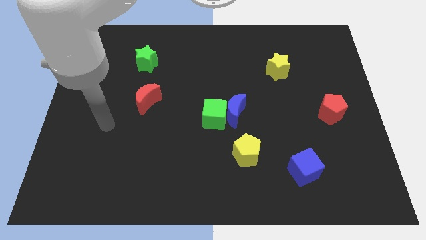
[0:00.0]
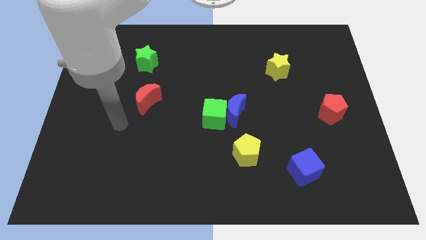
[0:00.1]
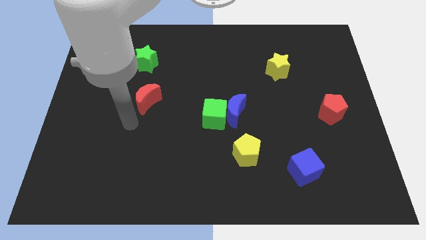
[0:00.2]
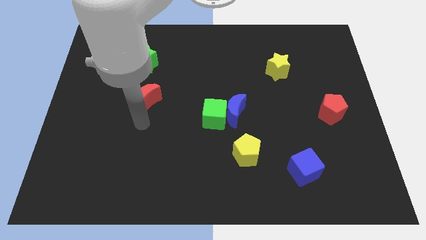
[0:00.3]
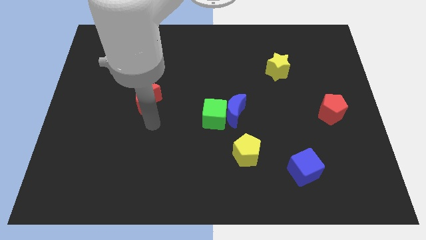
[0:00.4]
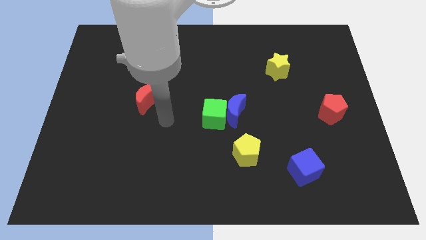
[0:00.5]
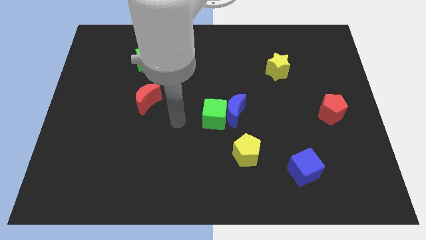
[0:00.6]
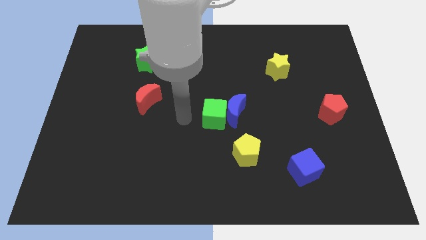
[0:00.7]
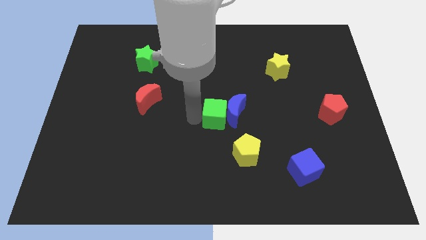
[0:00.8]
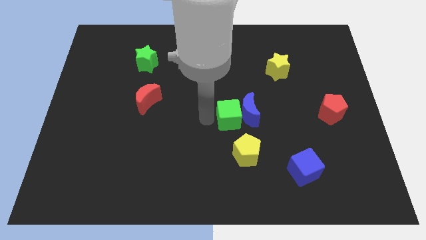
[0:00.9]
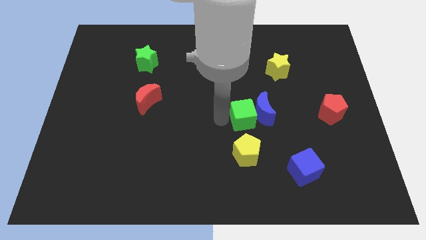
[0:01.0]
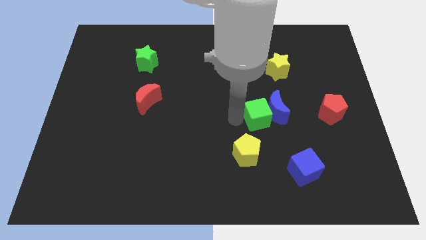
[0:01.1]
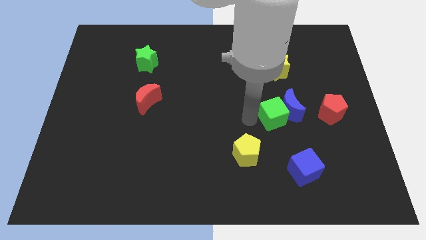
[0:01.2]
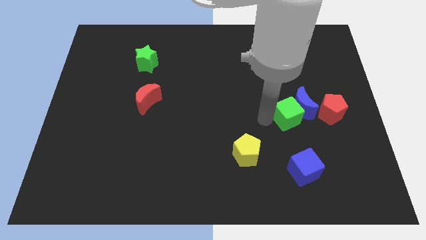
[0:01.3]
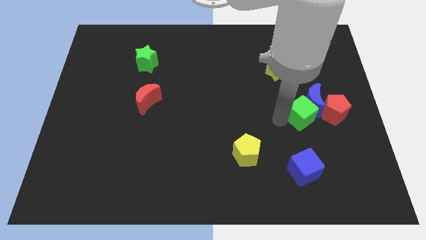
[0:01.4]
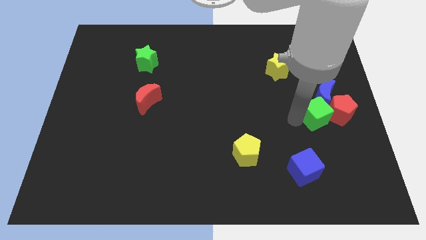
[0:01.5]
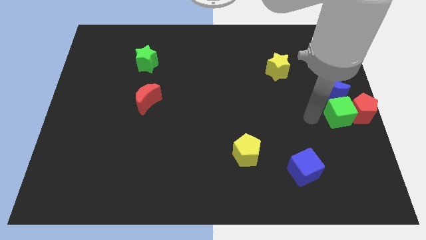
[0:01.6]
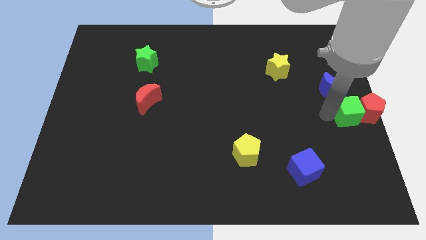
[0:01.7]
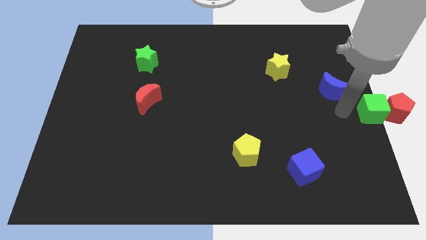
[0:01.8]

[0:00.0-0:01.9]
separate the blue moon from the green cube

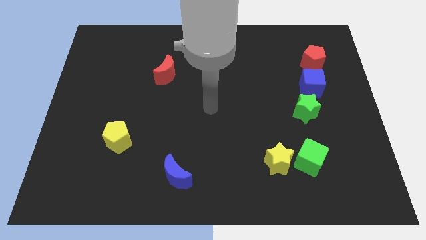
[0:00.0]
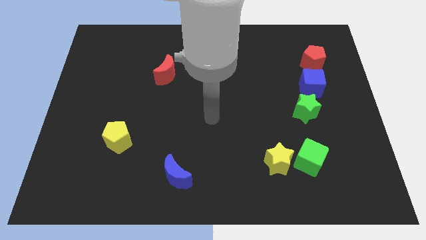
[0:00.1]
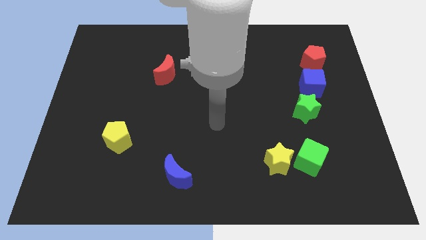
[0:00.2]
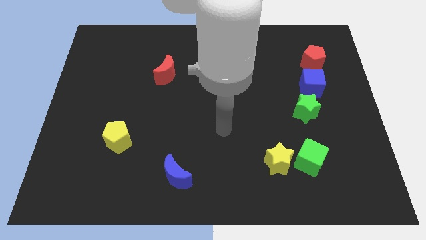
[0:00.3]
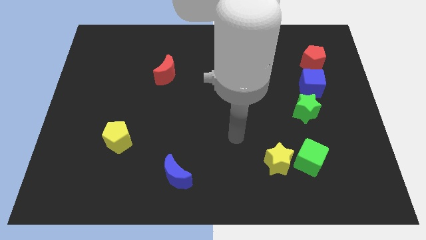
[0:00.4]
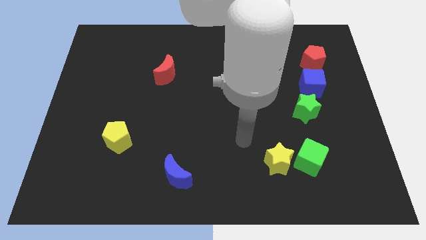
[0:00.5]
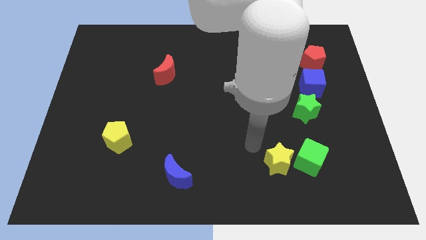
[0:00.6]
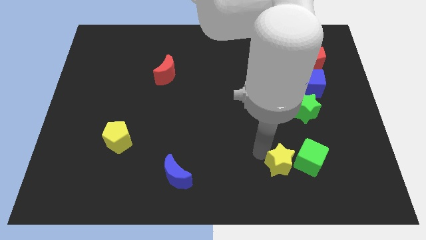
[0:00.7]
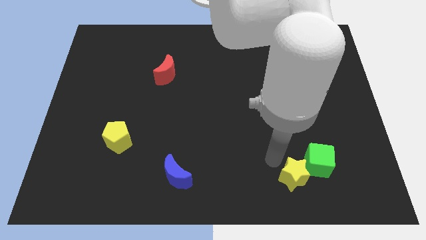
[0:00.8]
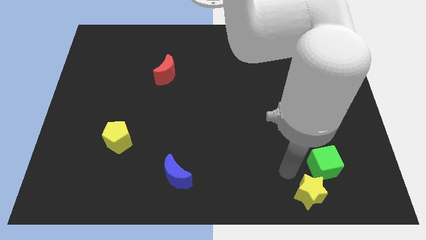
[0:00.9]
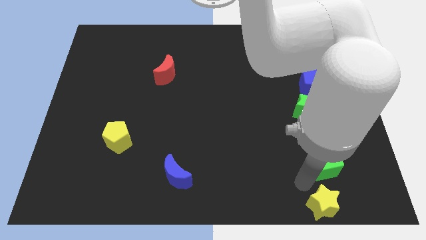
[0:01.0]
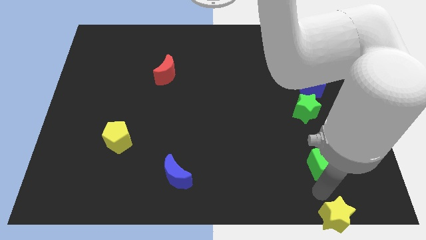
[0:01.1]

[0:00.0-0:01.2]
pull the green cube apart from the yellow star

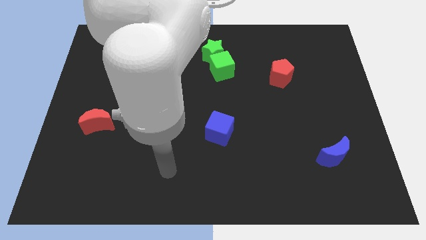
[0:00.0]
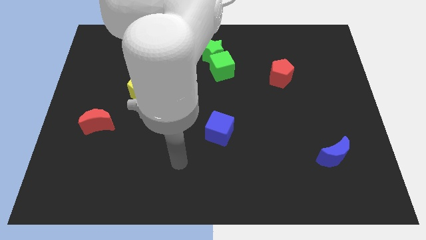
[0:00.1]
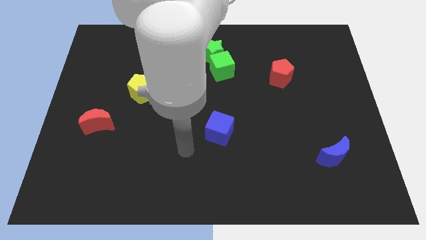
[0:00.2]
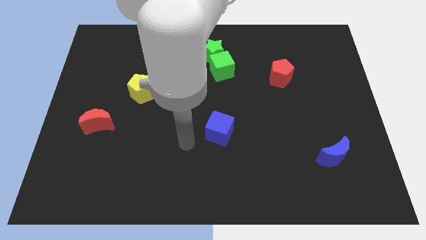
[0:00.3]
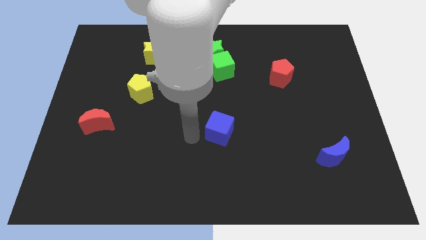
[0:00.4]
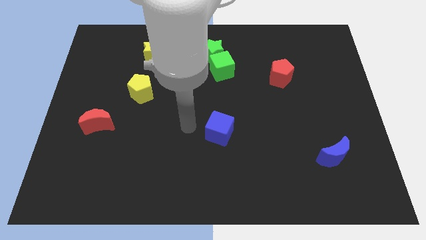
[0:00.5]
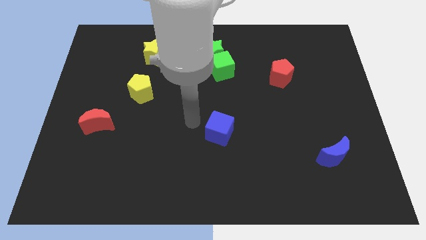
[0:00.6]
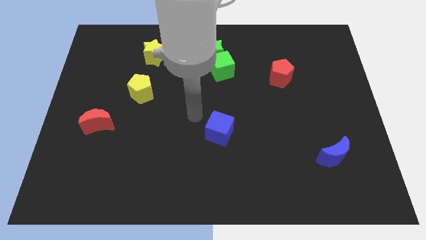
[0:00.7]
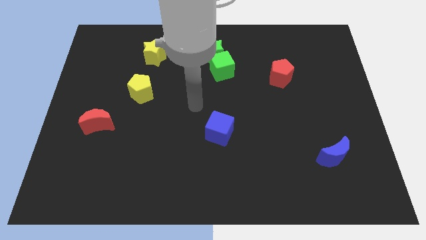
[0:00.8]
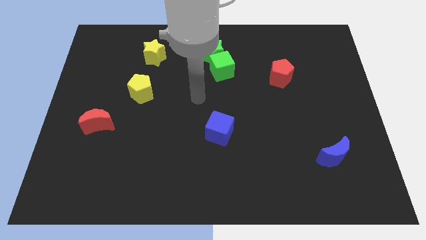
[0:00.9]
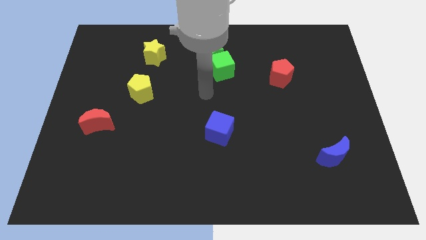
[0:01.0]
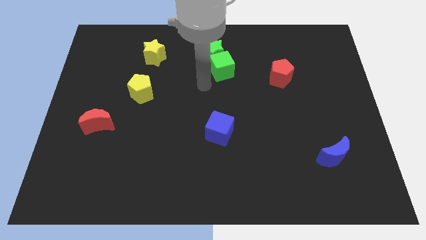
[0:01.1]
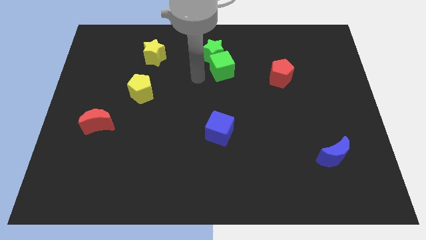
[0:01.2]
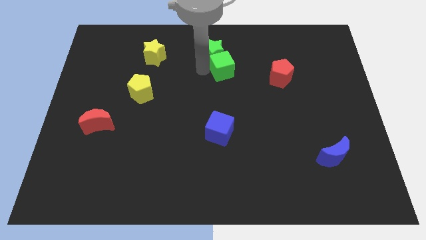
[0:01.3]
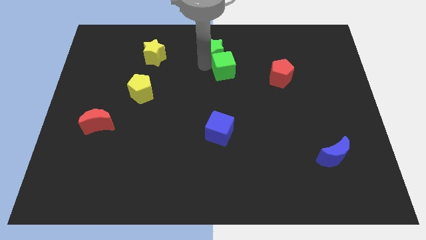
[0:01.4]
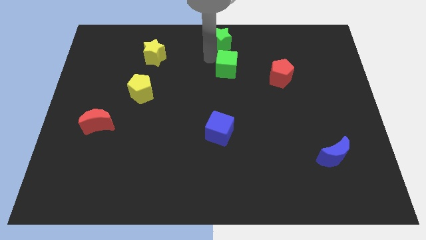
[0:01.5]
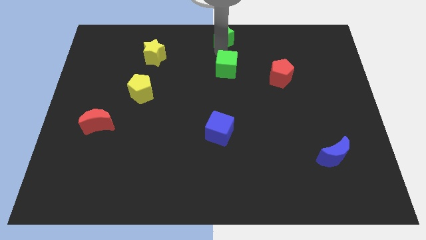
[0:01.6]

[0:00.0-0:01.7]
separate the green cube from the green star

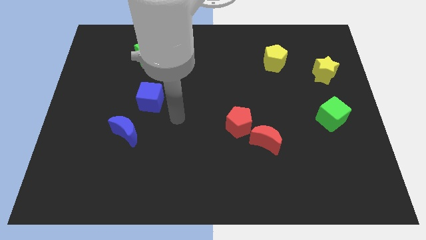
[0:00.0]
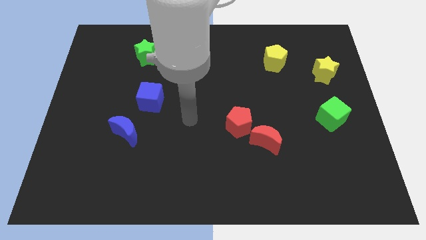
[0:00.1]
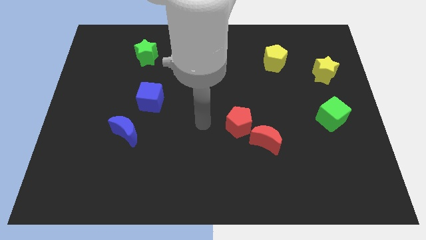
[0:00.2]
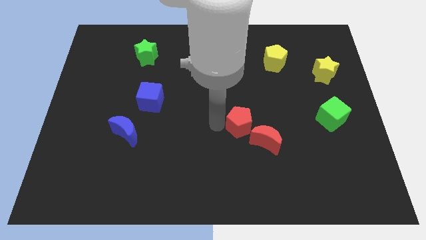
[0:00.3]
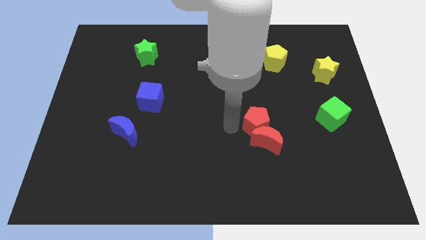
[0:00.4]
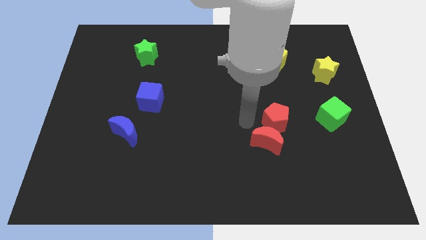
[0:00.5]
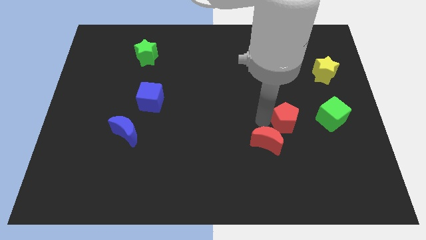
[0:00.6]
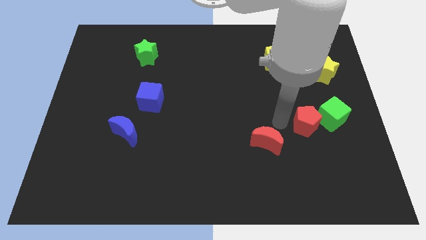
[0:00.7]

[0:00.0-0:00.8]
move the red moon away from the red pentagon

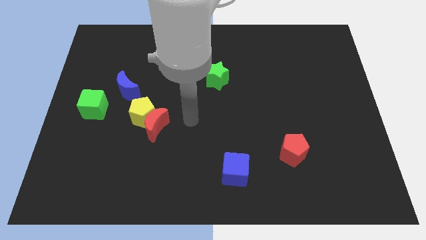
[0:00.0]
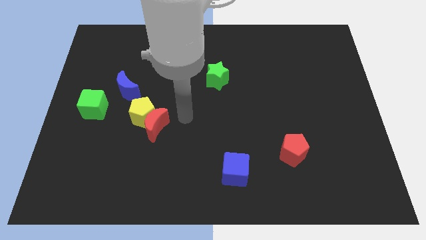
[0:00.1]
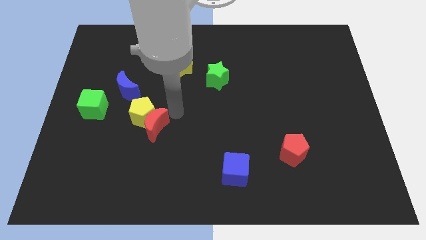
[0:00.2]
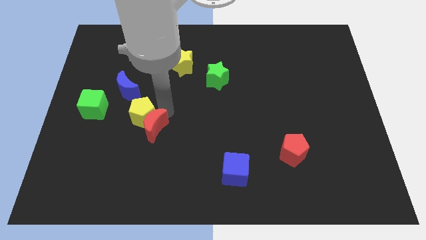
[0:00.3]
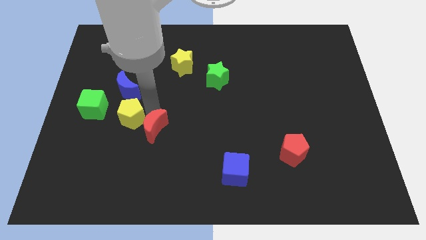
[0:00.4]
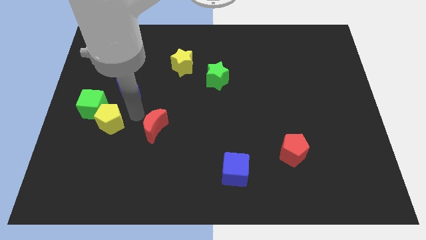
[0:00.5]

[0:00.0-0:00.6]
separate the red moon from the yellow pentagon

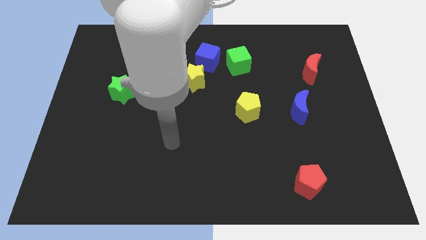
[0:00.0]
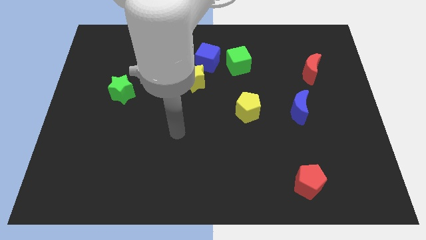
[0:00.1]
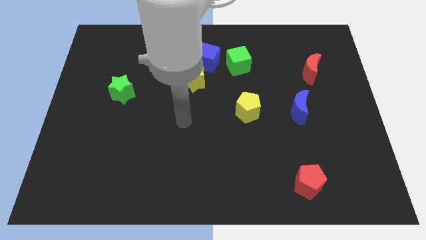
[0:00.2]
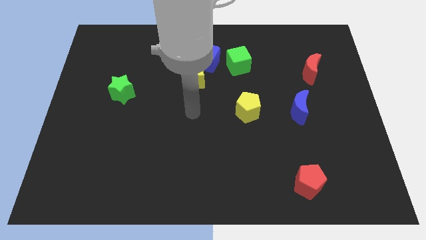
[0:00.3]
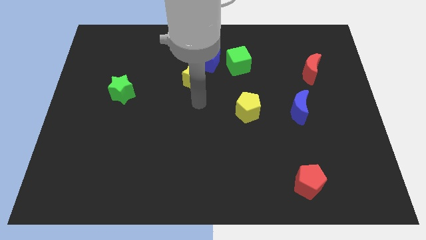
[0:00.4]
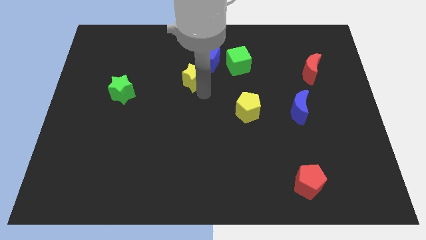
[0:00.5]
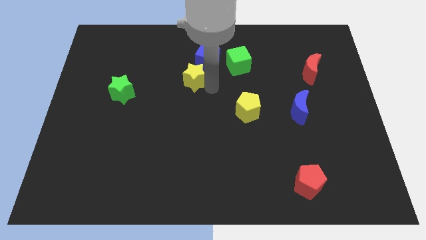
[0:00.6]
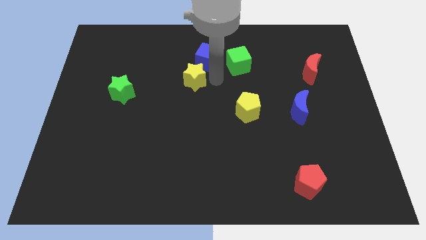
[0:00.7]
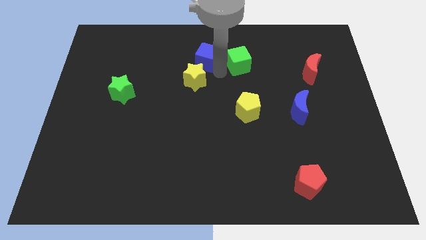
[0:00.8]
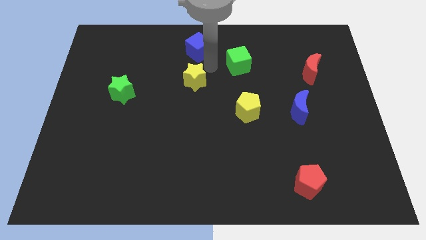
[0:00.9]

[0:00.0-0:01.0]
move the yellow star away from the blue cube

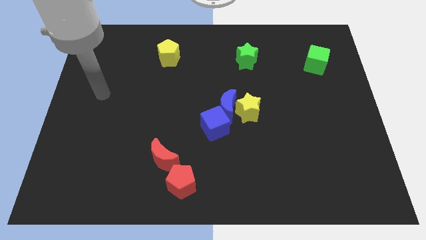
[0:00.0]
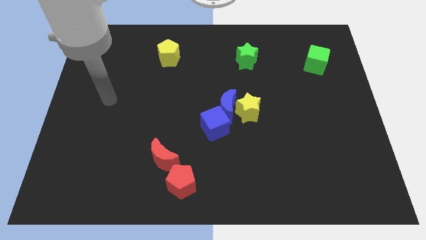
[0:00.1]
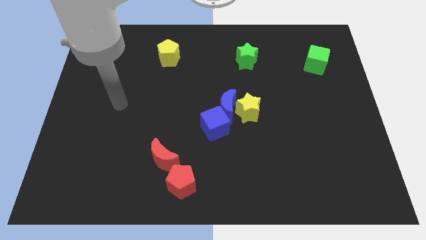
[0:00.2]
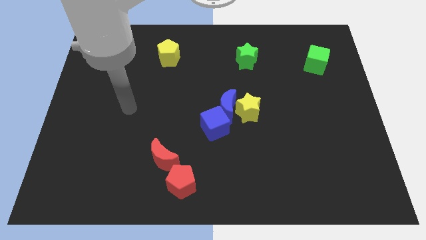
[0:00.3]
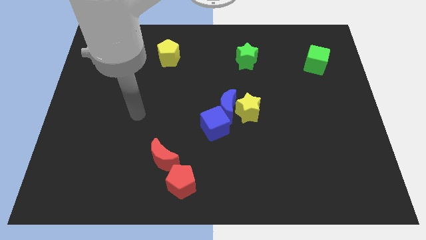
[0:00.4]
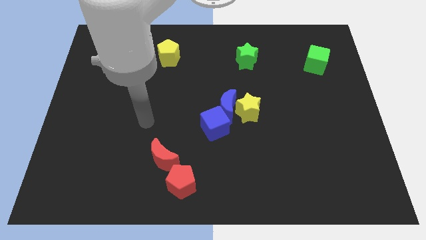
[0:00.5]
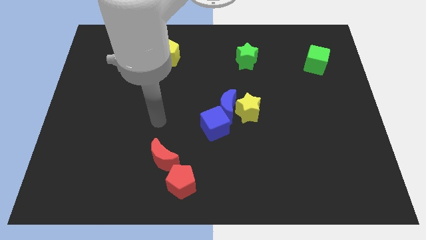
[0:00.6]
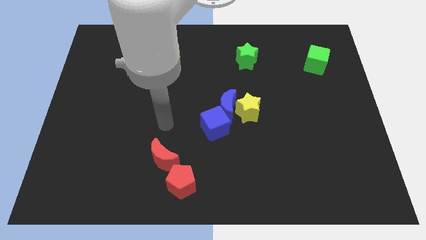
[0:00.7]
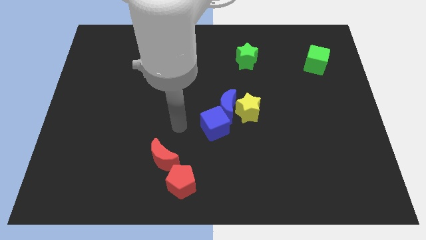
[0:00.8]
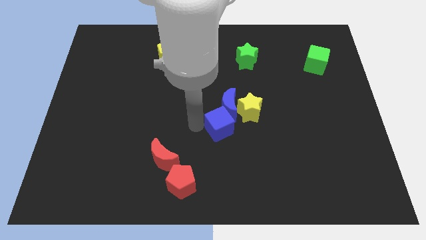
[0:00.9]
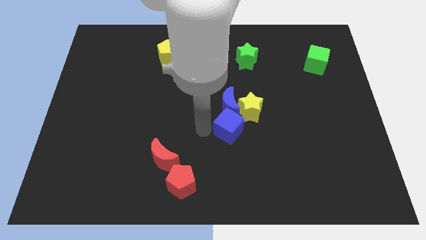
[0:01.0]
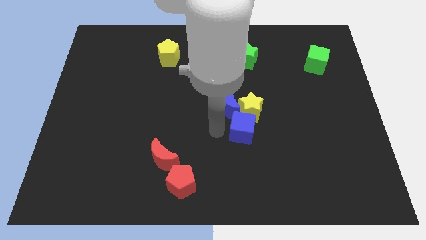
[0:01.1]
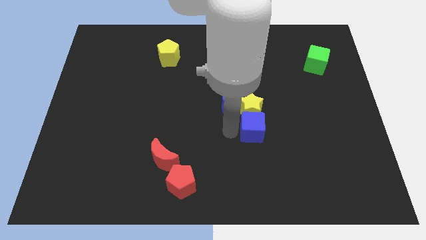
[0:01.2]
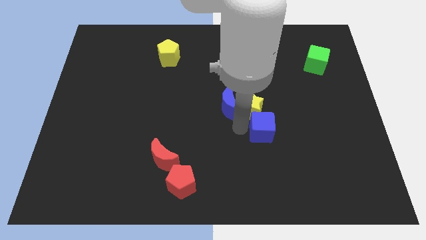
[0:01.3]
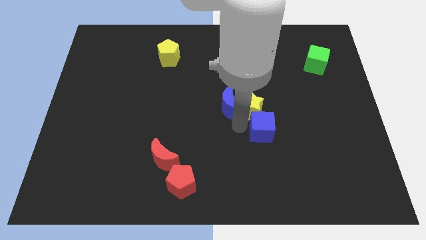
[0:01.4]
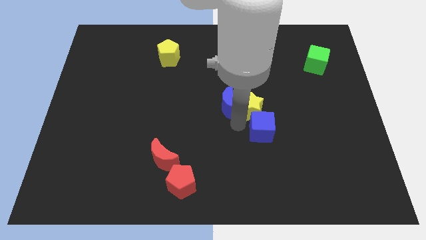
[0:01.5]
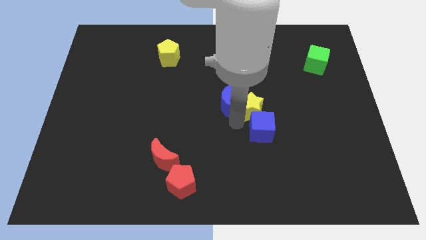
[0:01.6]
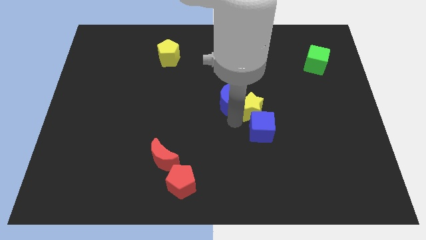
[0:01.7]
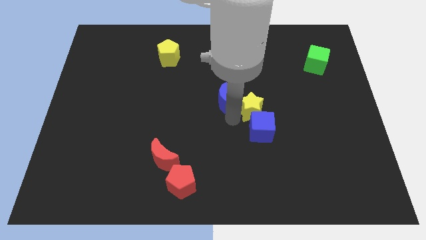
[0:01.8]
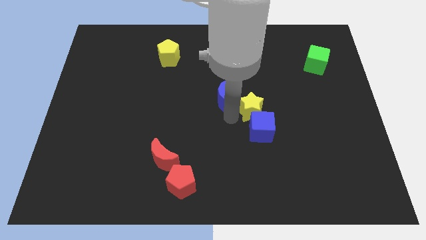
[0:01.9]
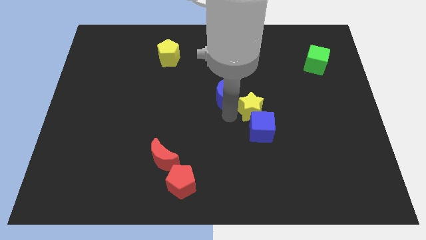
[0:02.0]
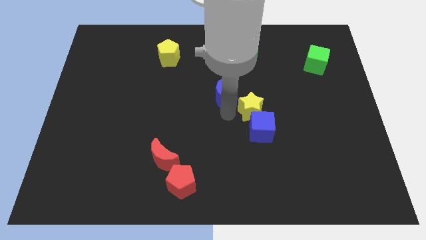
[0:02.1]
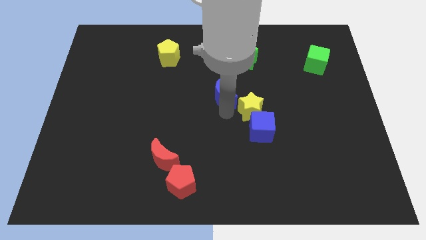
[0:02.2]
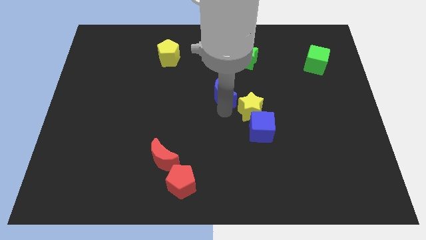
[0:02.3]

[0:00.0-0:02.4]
move the blue moon away from the yellow star and blue cube
